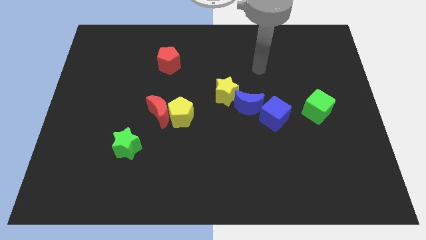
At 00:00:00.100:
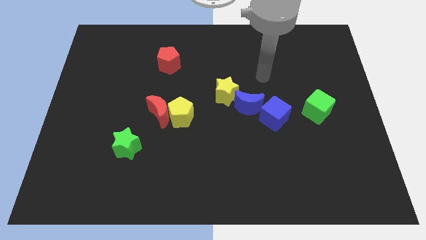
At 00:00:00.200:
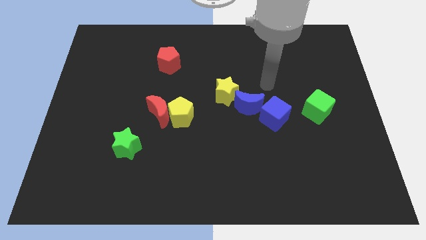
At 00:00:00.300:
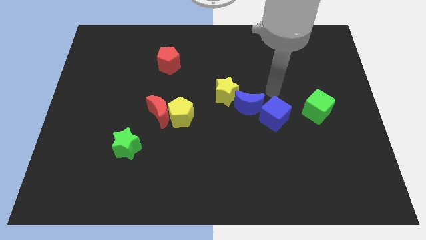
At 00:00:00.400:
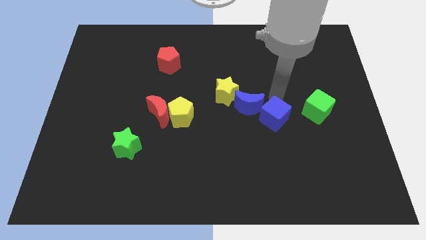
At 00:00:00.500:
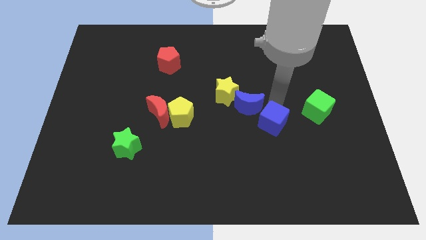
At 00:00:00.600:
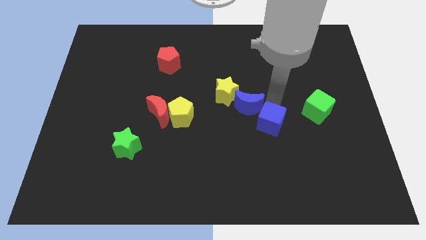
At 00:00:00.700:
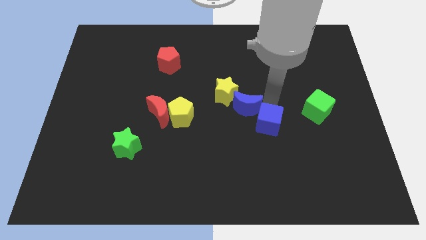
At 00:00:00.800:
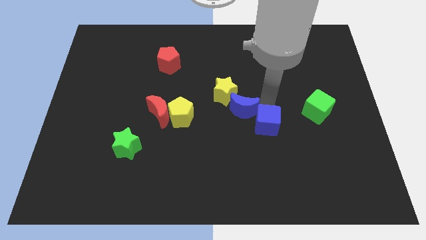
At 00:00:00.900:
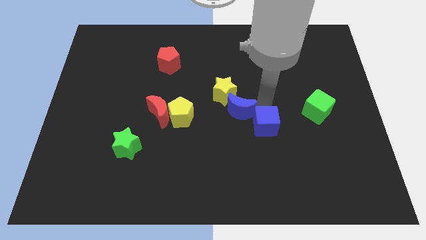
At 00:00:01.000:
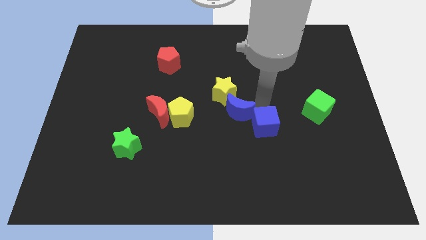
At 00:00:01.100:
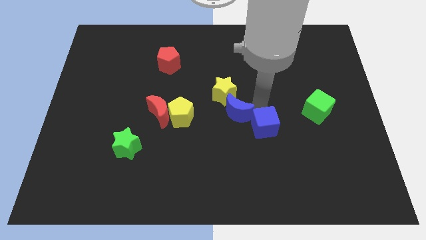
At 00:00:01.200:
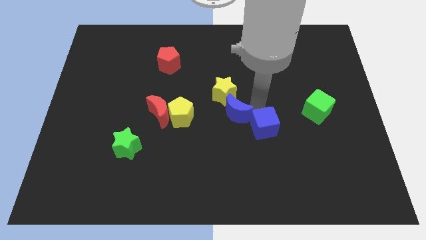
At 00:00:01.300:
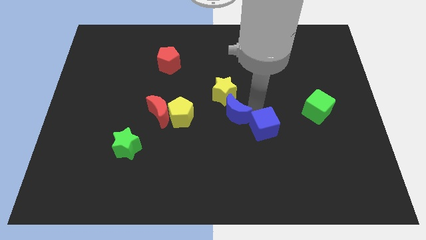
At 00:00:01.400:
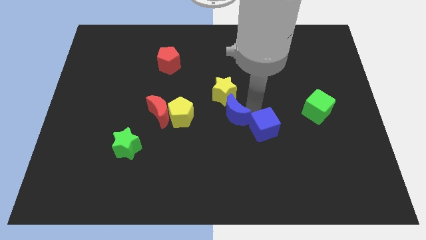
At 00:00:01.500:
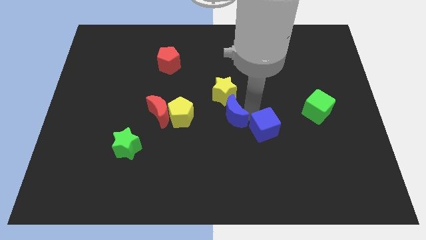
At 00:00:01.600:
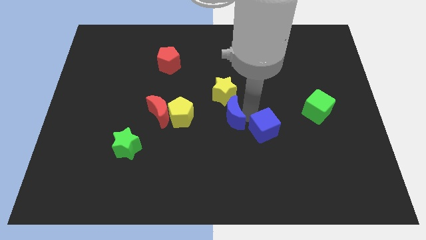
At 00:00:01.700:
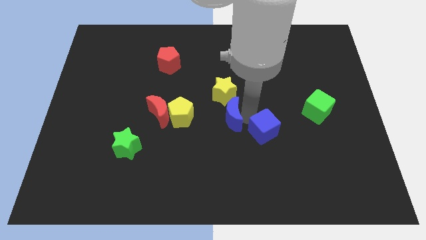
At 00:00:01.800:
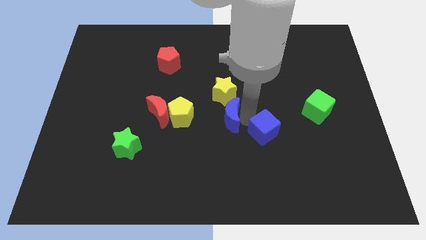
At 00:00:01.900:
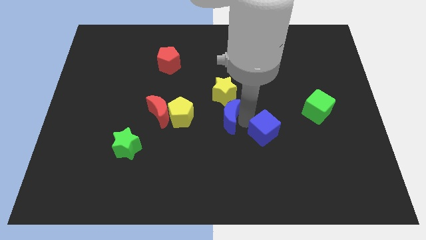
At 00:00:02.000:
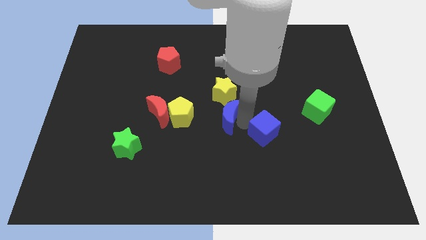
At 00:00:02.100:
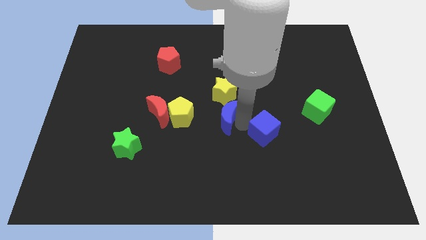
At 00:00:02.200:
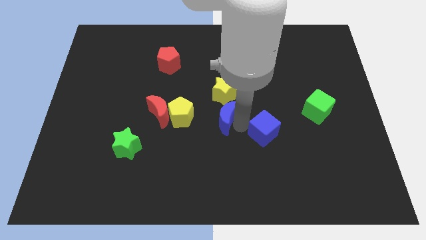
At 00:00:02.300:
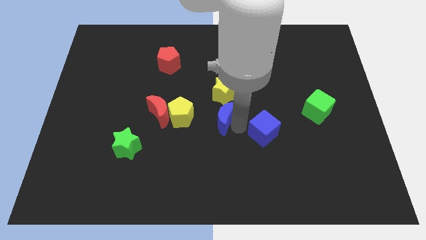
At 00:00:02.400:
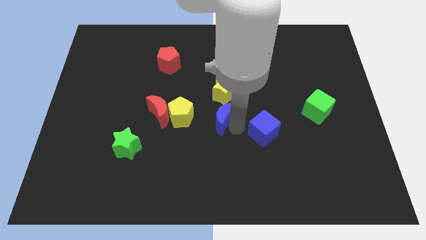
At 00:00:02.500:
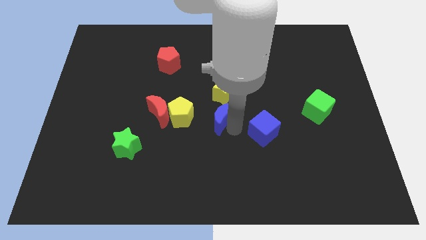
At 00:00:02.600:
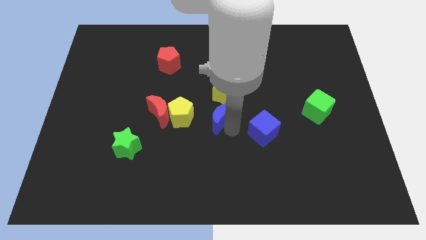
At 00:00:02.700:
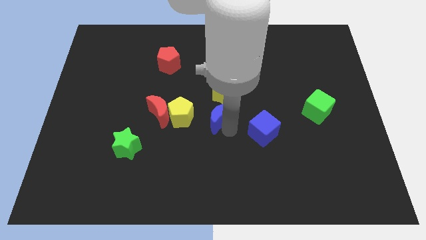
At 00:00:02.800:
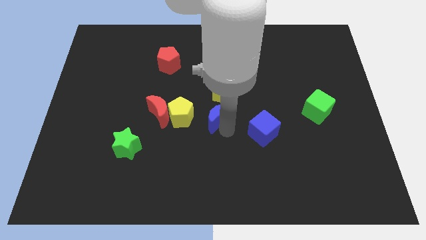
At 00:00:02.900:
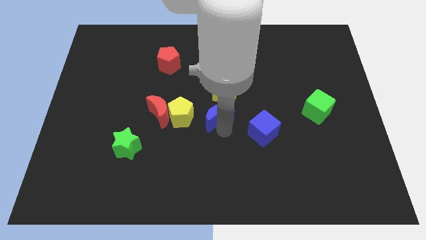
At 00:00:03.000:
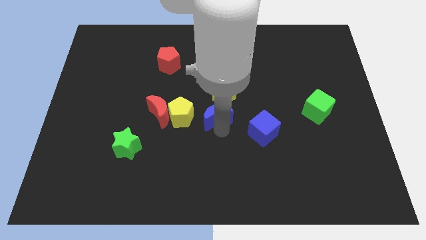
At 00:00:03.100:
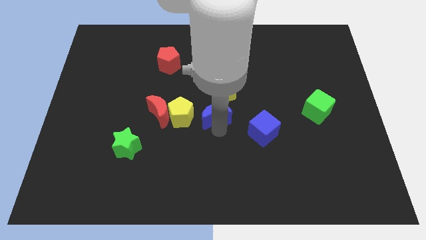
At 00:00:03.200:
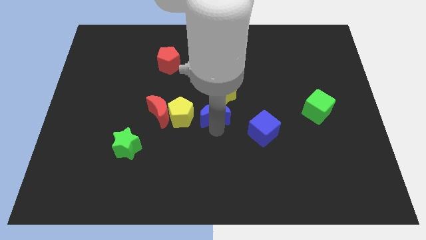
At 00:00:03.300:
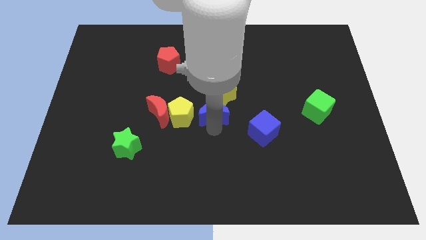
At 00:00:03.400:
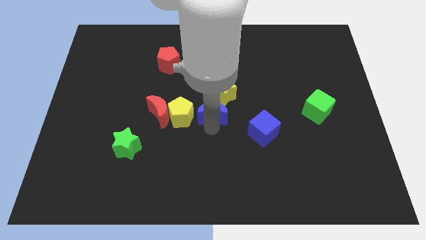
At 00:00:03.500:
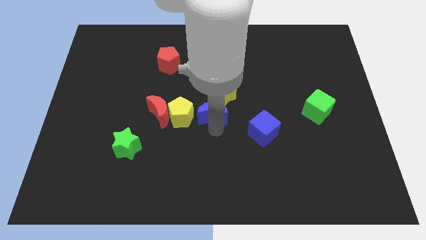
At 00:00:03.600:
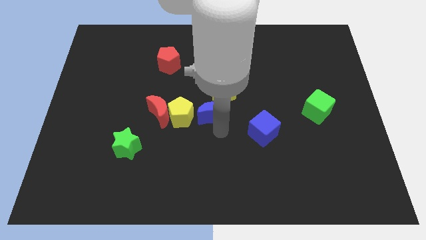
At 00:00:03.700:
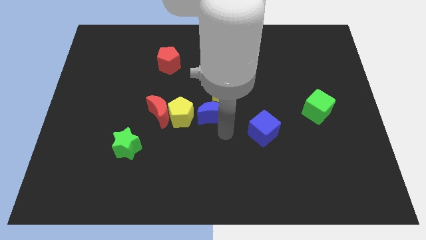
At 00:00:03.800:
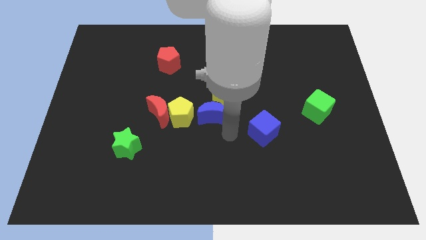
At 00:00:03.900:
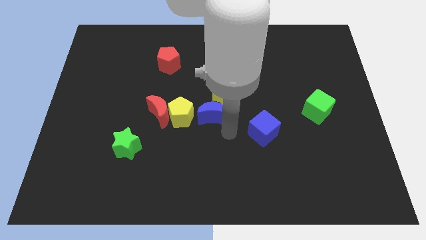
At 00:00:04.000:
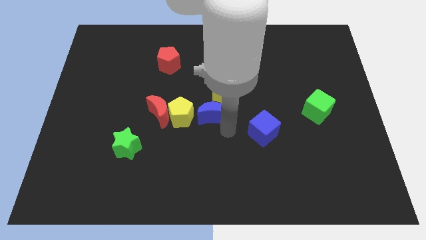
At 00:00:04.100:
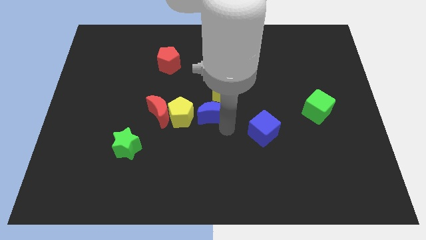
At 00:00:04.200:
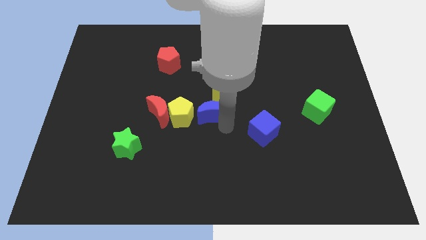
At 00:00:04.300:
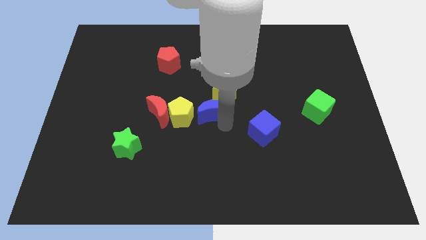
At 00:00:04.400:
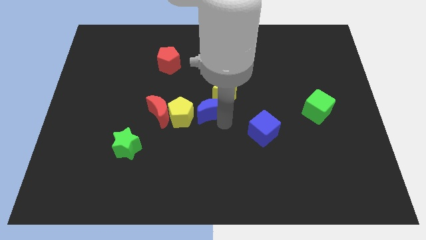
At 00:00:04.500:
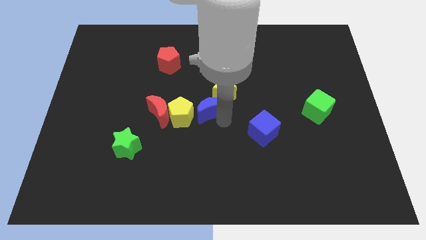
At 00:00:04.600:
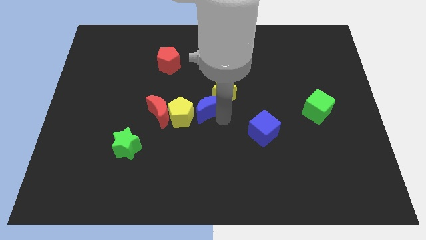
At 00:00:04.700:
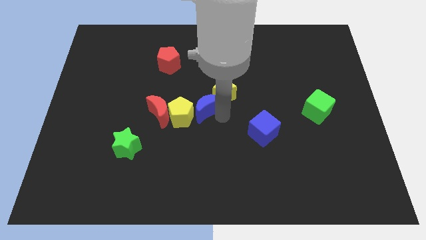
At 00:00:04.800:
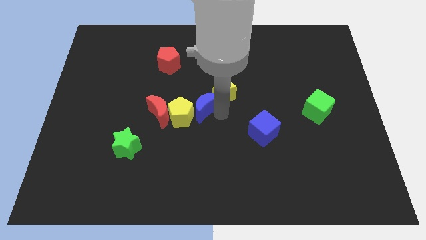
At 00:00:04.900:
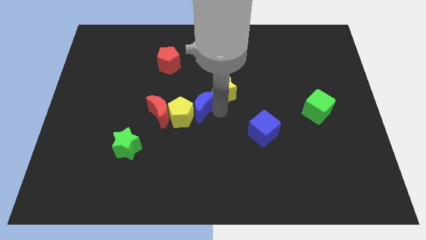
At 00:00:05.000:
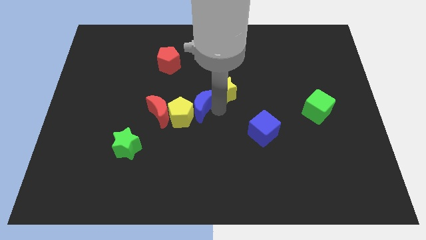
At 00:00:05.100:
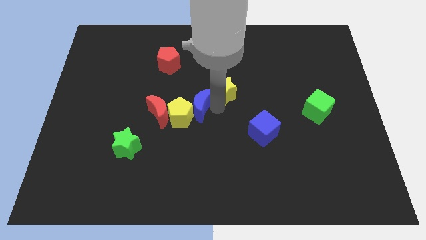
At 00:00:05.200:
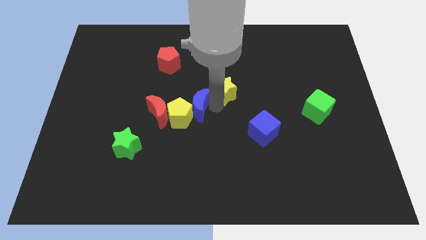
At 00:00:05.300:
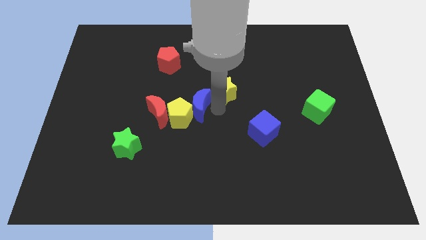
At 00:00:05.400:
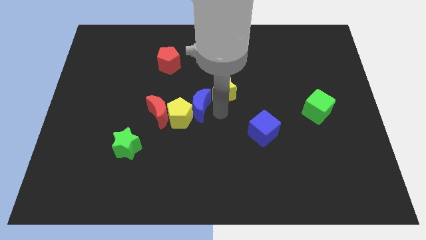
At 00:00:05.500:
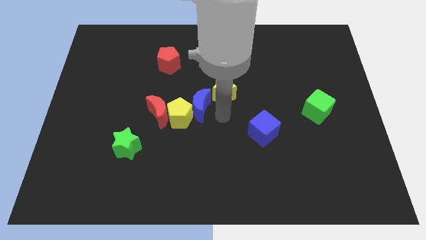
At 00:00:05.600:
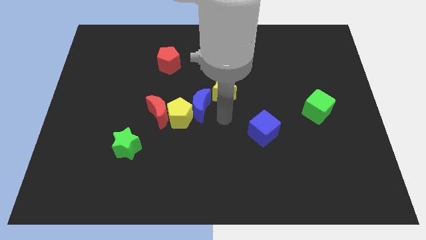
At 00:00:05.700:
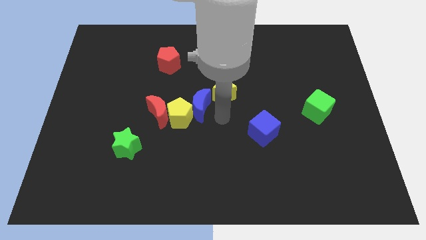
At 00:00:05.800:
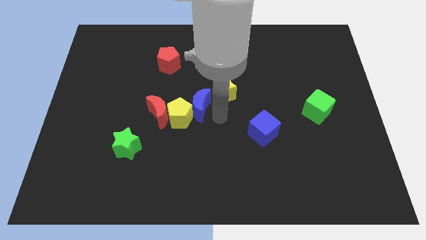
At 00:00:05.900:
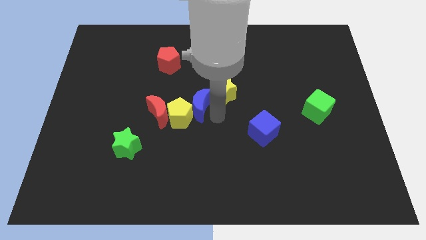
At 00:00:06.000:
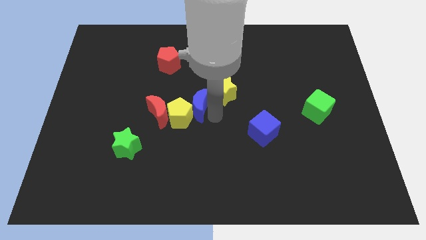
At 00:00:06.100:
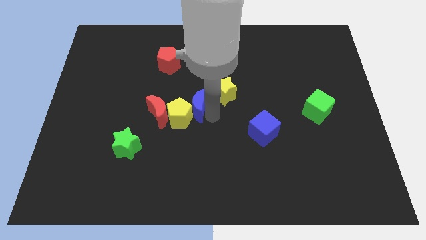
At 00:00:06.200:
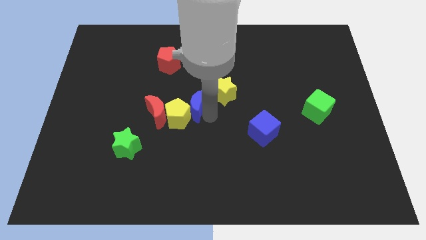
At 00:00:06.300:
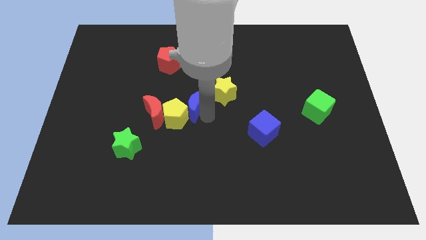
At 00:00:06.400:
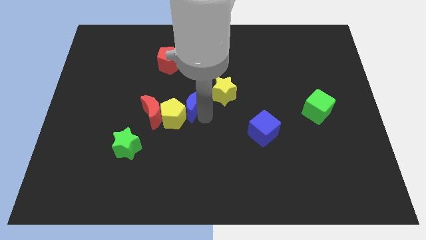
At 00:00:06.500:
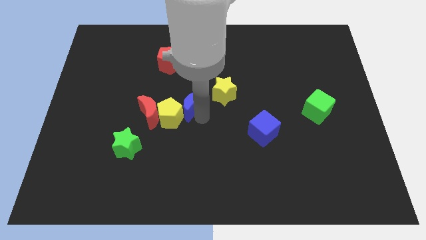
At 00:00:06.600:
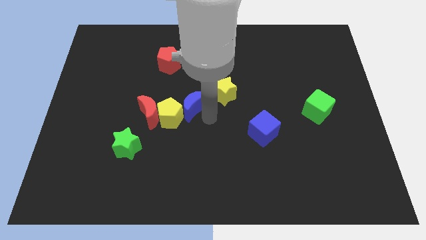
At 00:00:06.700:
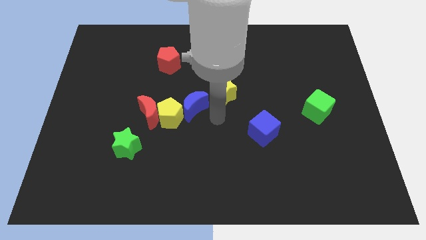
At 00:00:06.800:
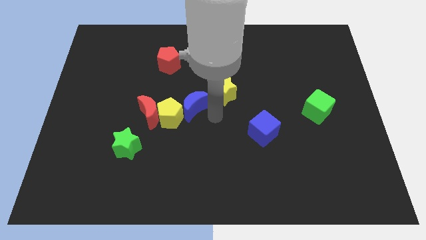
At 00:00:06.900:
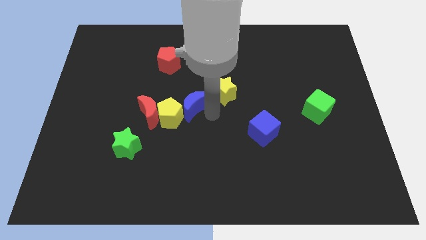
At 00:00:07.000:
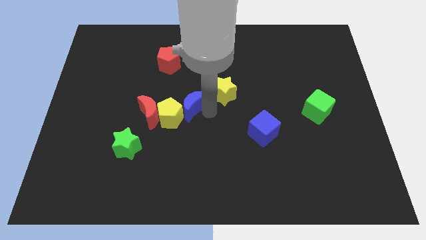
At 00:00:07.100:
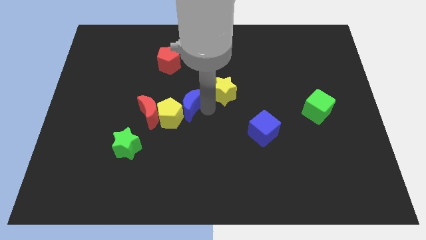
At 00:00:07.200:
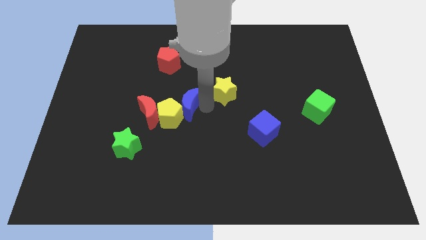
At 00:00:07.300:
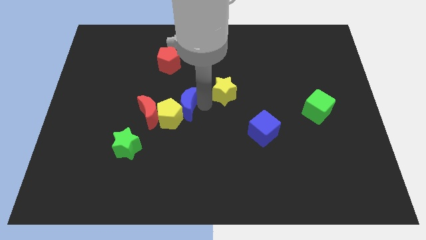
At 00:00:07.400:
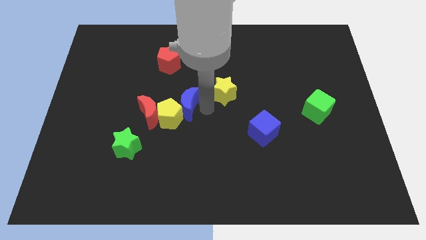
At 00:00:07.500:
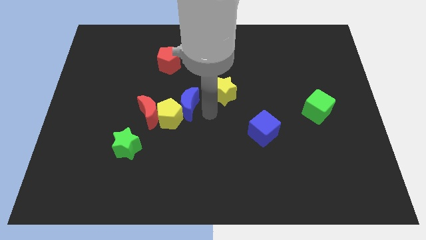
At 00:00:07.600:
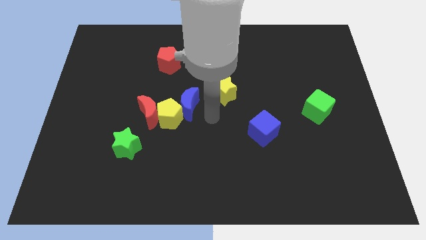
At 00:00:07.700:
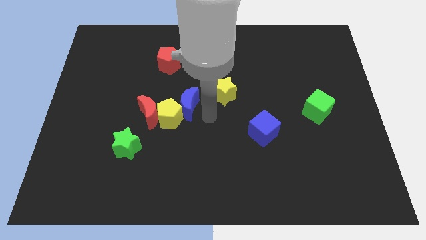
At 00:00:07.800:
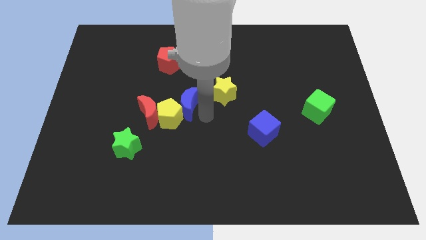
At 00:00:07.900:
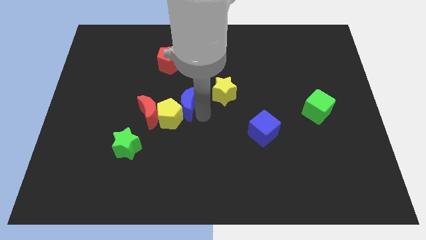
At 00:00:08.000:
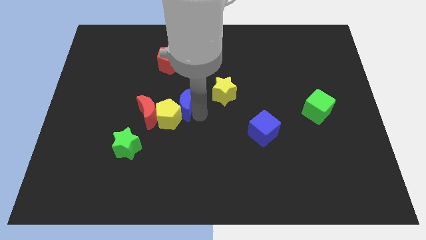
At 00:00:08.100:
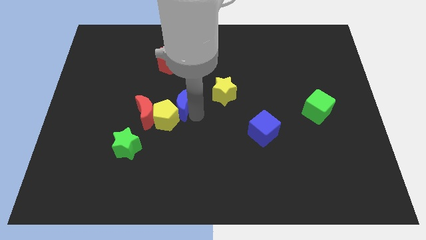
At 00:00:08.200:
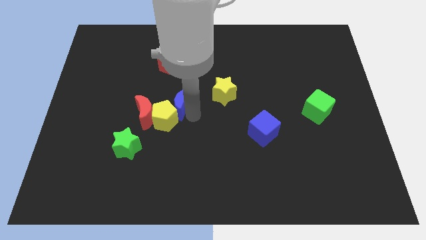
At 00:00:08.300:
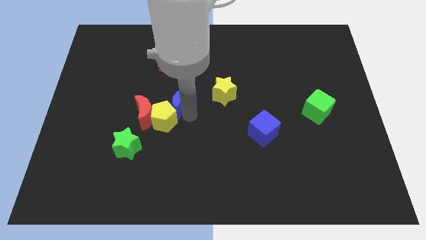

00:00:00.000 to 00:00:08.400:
move the blue moon to the bottom of the red pentagon
